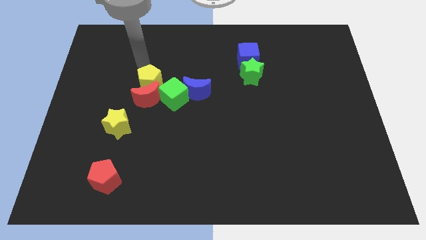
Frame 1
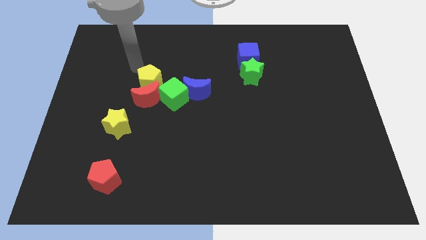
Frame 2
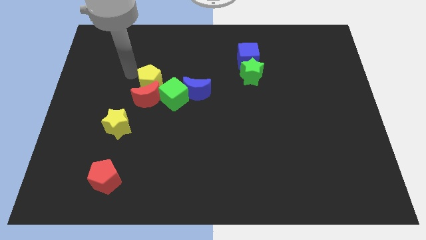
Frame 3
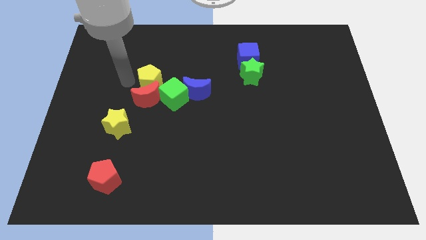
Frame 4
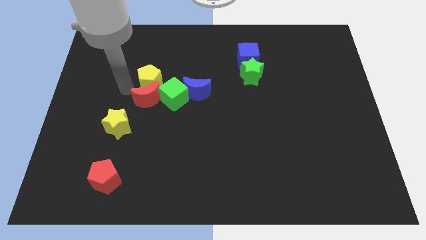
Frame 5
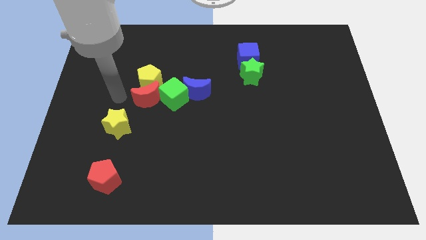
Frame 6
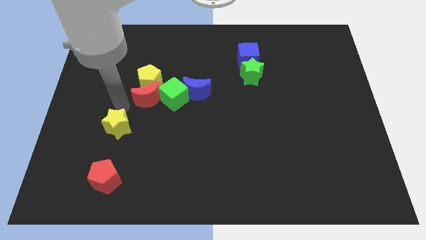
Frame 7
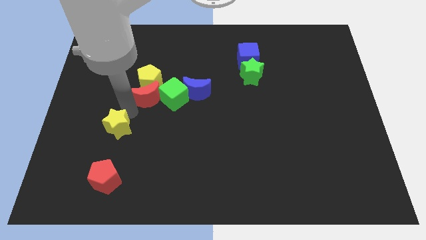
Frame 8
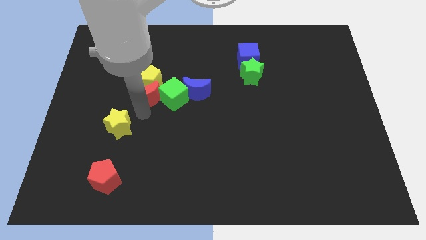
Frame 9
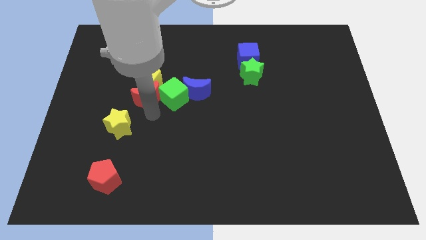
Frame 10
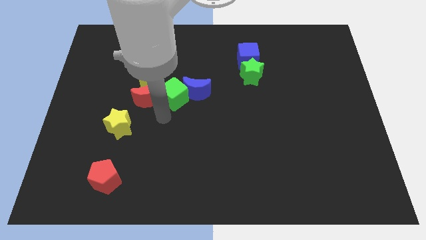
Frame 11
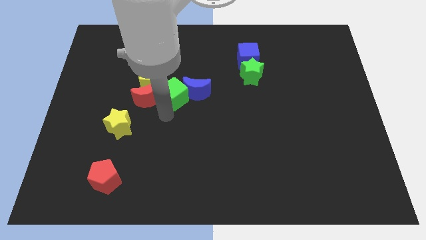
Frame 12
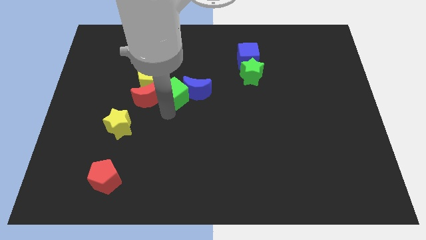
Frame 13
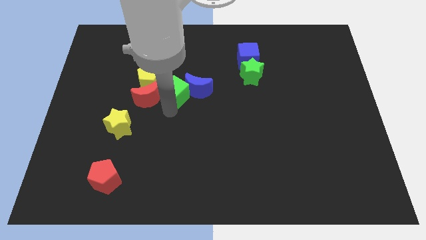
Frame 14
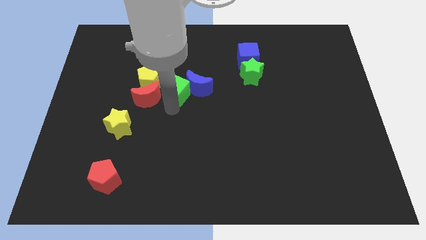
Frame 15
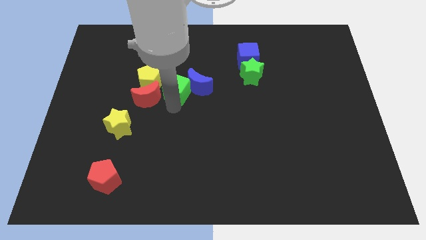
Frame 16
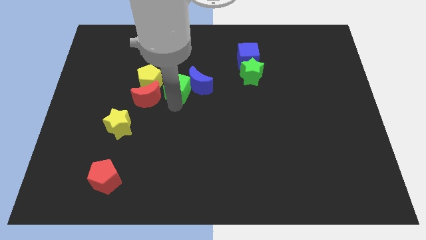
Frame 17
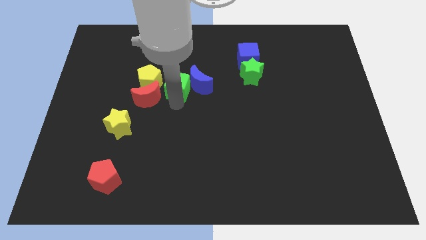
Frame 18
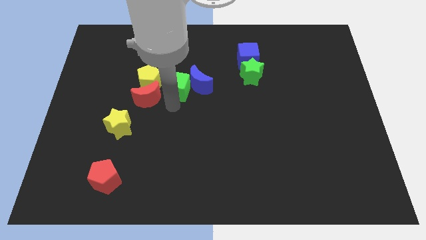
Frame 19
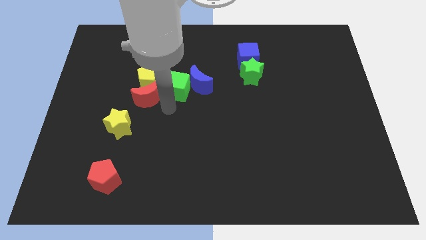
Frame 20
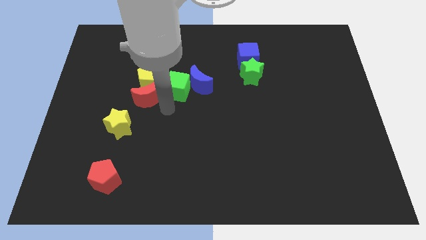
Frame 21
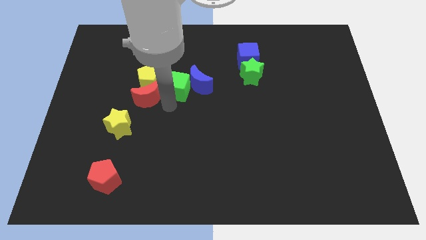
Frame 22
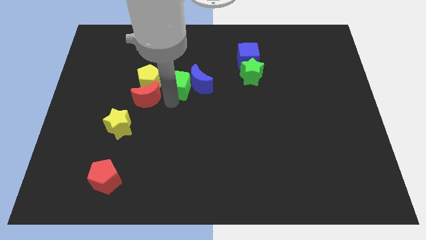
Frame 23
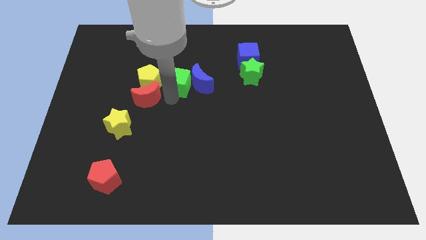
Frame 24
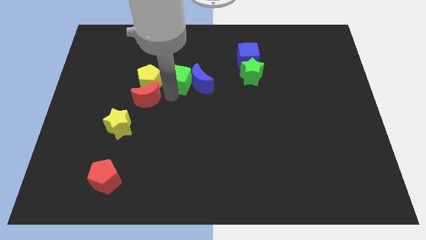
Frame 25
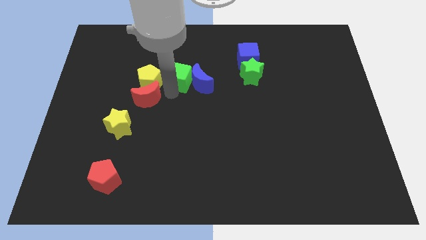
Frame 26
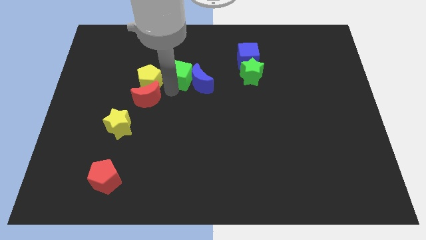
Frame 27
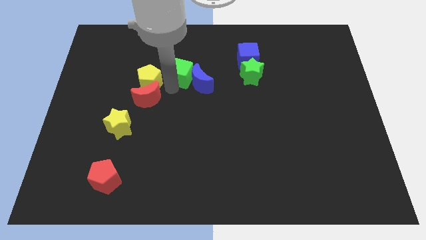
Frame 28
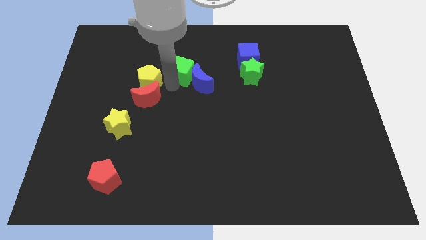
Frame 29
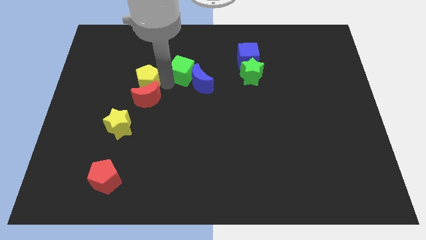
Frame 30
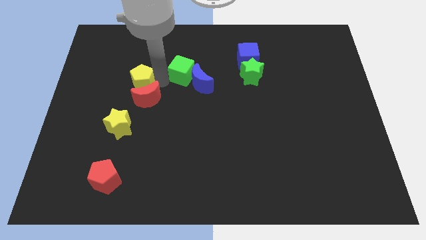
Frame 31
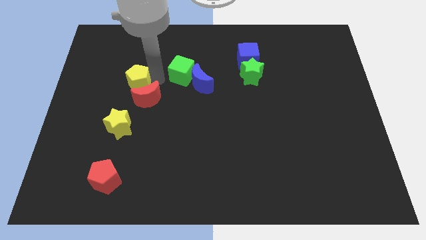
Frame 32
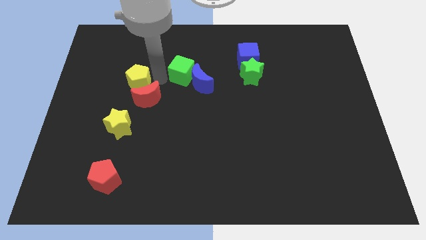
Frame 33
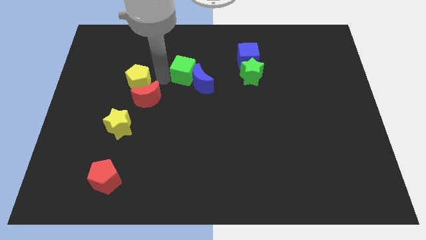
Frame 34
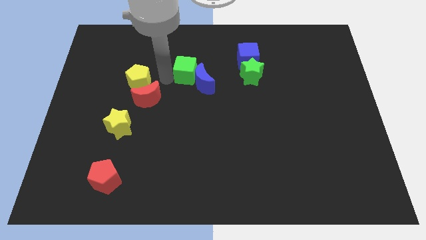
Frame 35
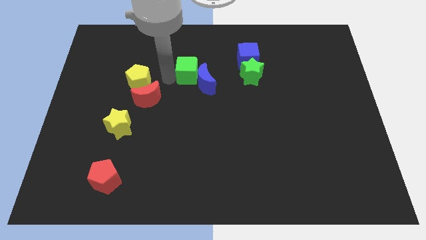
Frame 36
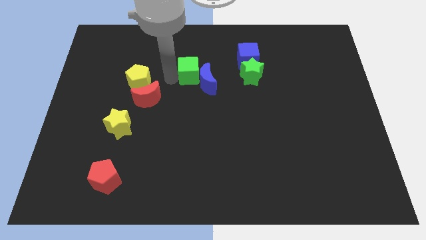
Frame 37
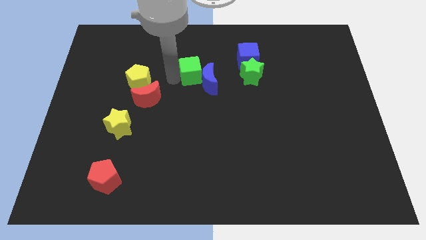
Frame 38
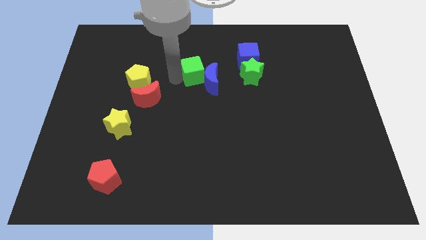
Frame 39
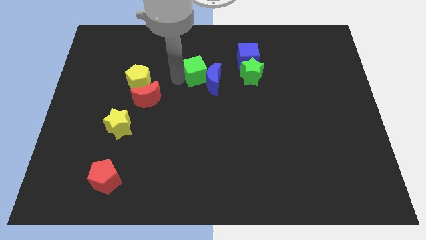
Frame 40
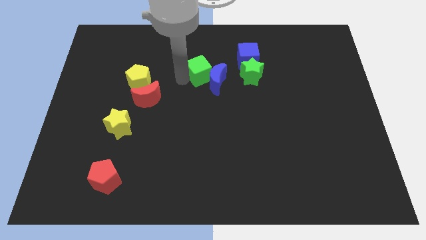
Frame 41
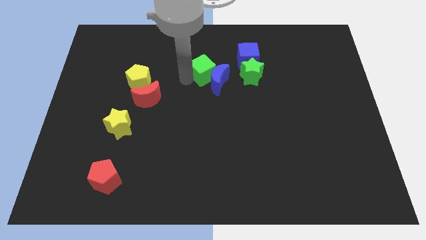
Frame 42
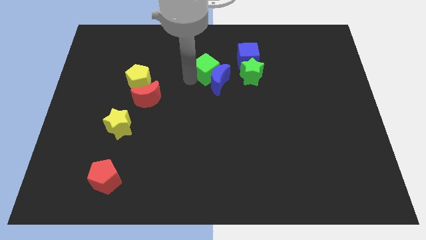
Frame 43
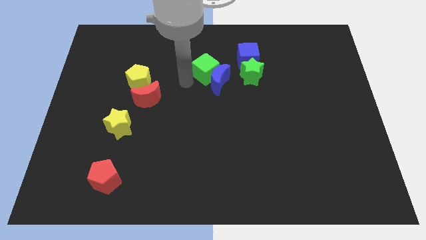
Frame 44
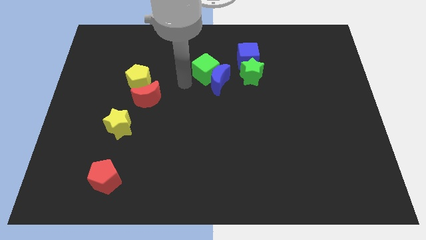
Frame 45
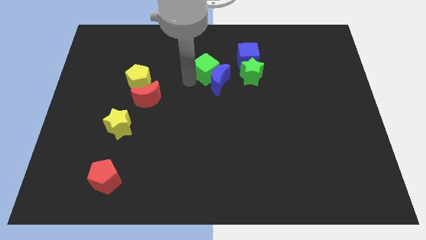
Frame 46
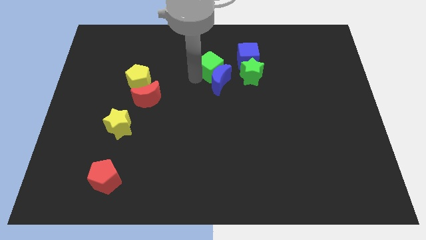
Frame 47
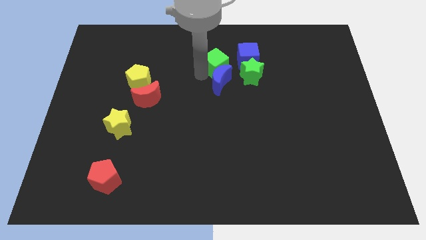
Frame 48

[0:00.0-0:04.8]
push the green cube diagonally up and to the left of the green star

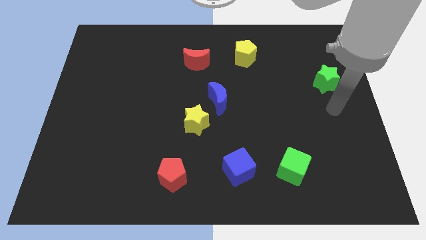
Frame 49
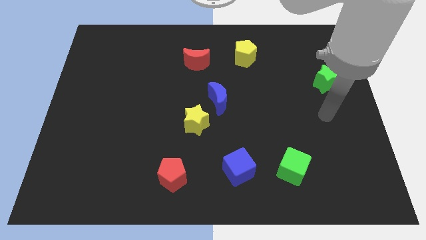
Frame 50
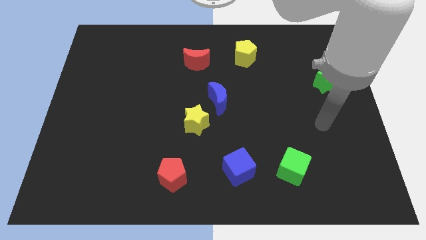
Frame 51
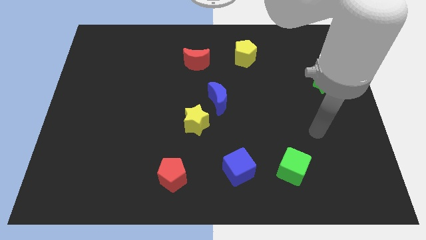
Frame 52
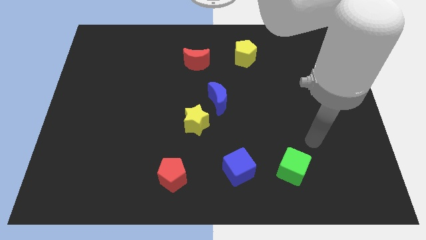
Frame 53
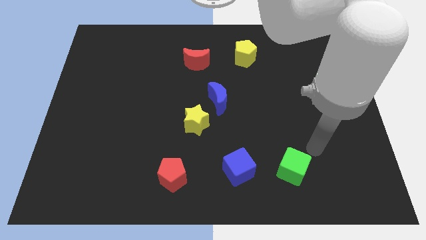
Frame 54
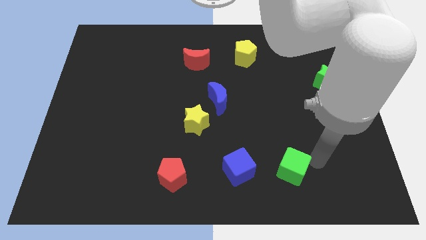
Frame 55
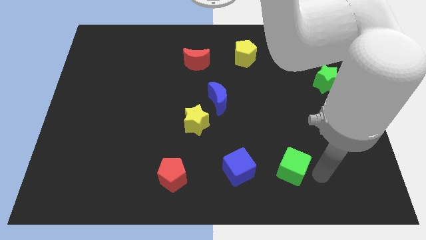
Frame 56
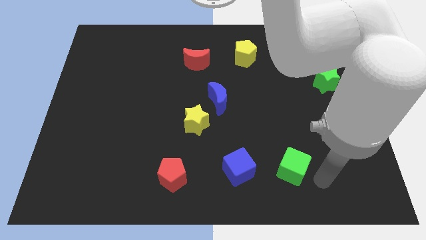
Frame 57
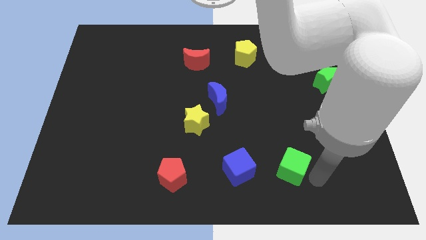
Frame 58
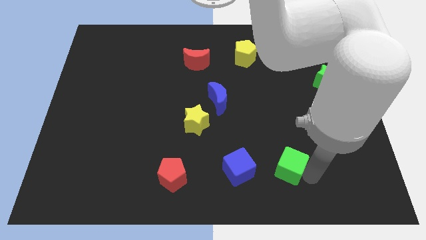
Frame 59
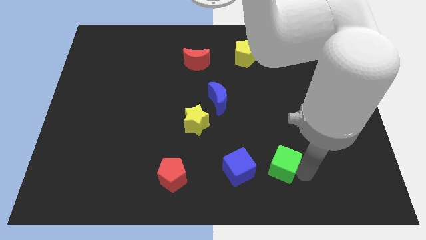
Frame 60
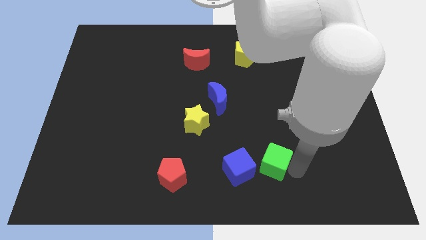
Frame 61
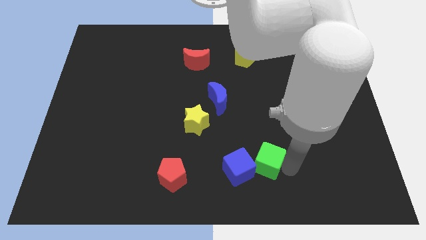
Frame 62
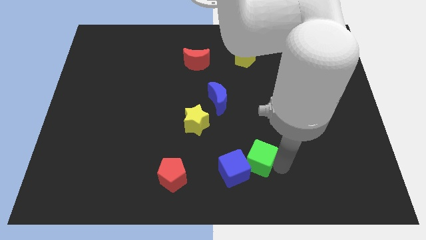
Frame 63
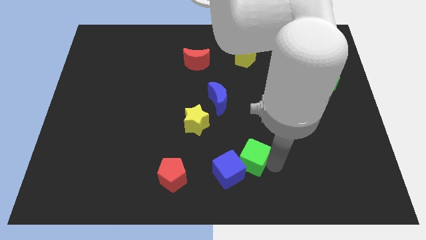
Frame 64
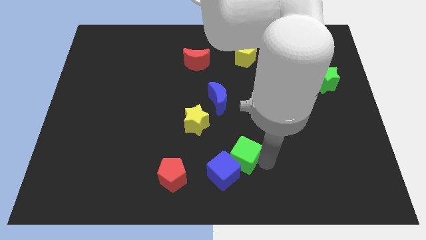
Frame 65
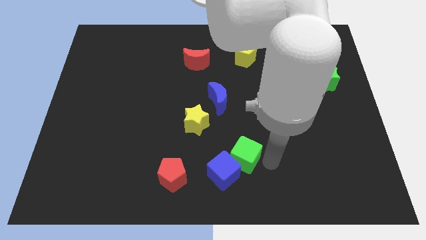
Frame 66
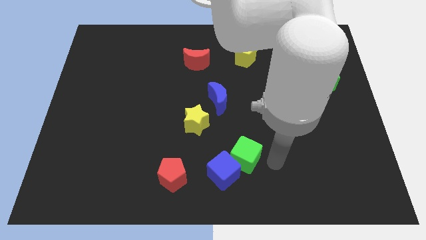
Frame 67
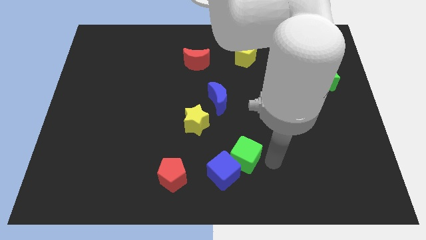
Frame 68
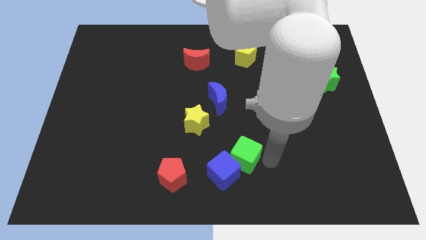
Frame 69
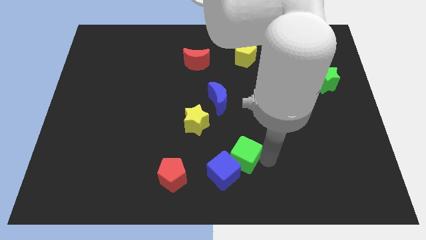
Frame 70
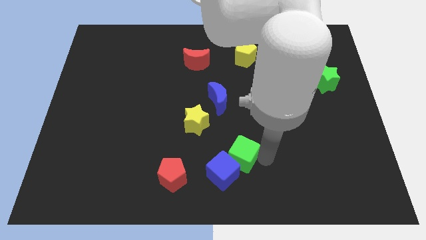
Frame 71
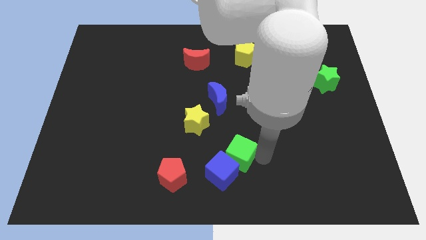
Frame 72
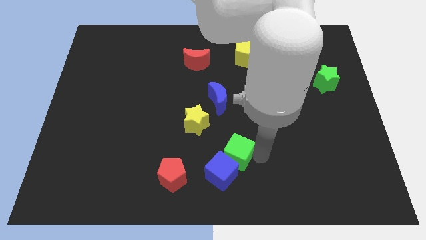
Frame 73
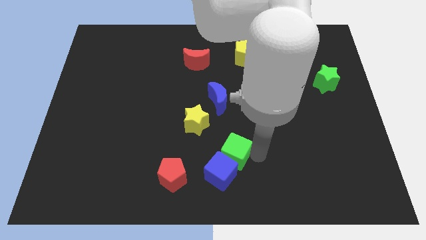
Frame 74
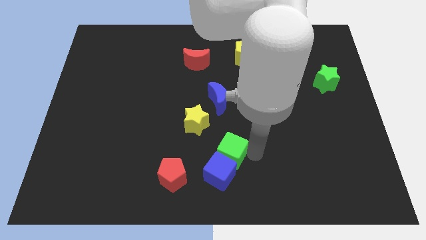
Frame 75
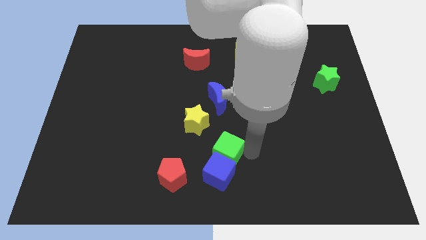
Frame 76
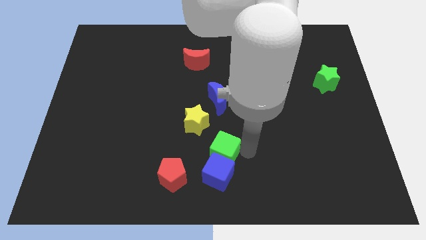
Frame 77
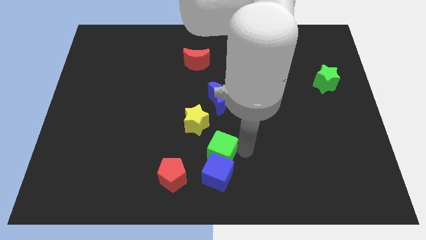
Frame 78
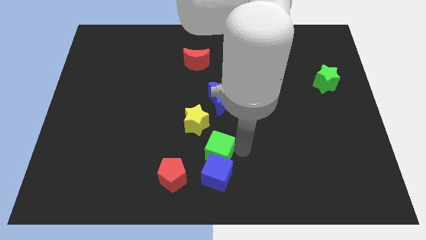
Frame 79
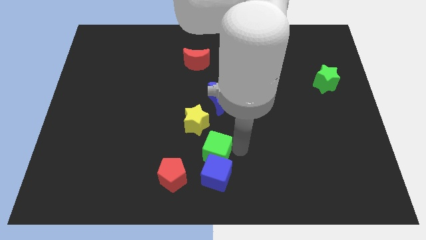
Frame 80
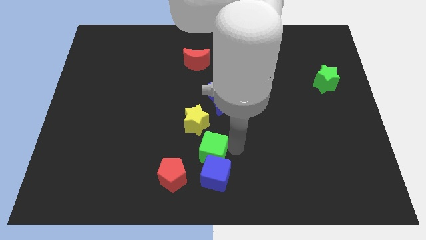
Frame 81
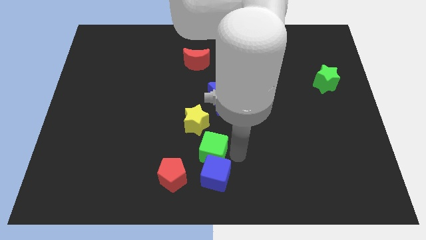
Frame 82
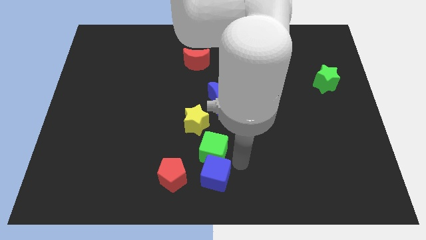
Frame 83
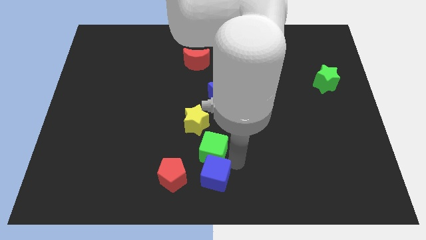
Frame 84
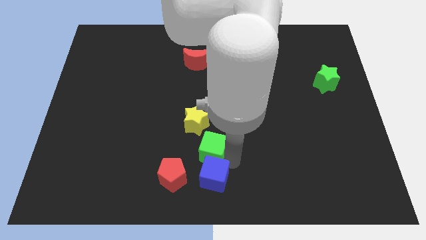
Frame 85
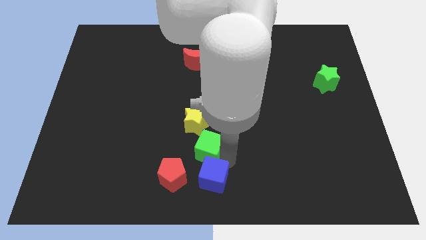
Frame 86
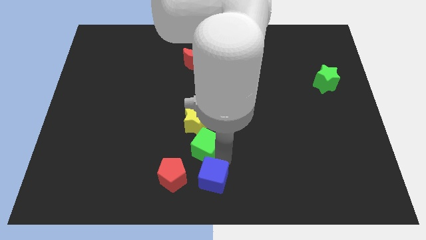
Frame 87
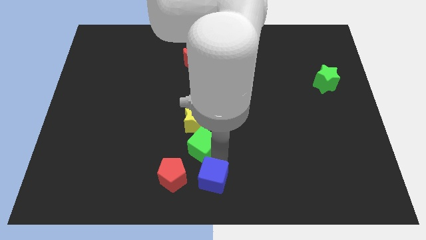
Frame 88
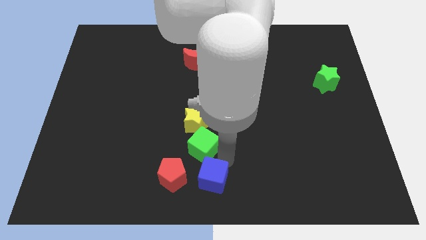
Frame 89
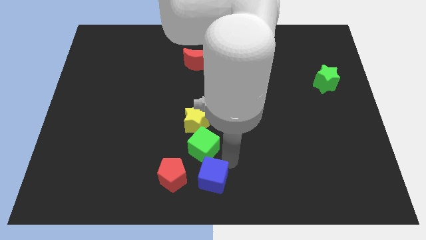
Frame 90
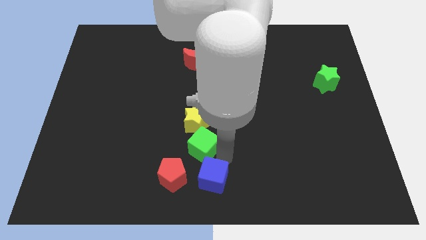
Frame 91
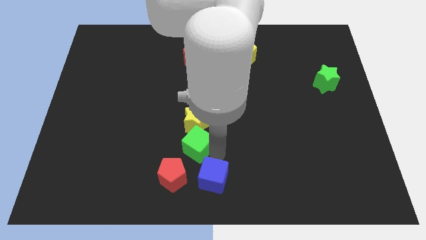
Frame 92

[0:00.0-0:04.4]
push the green cube above the red pentagon
